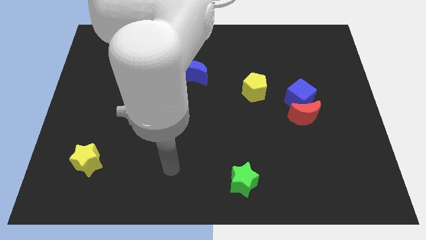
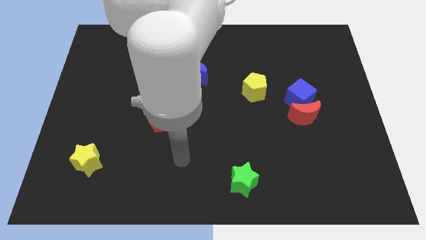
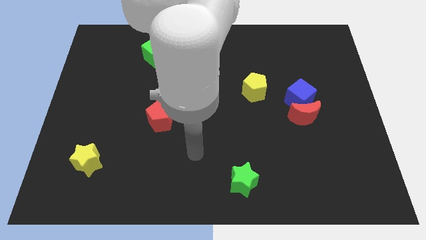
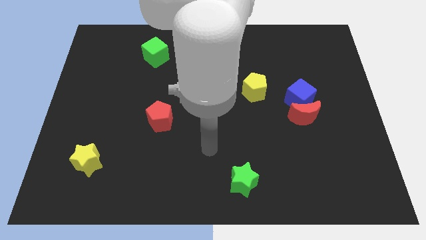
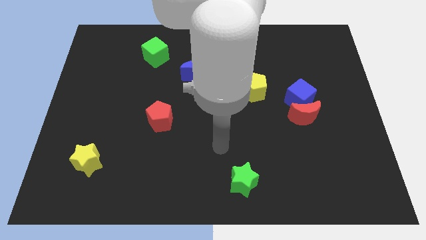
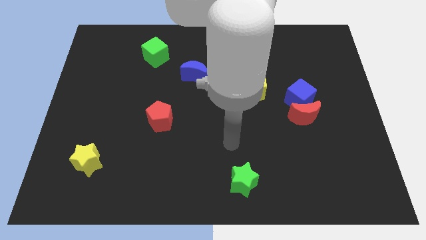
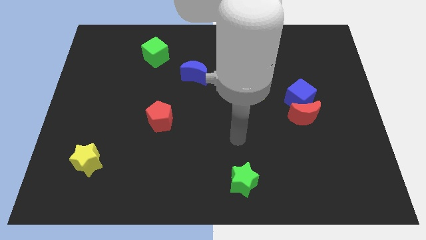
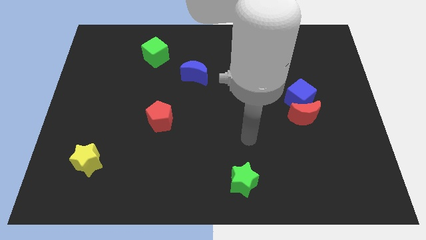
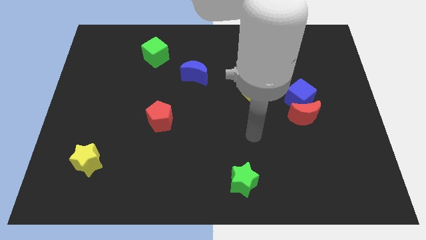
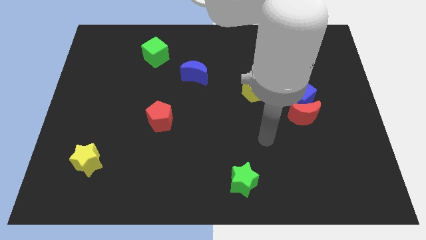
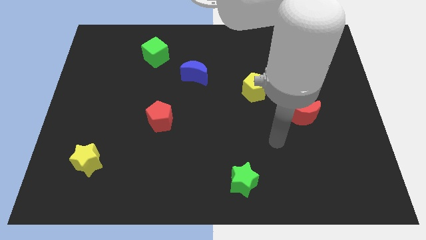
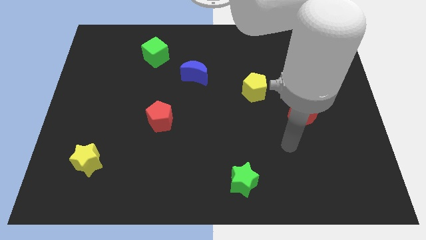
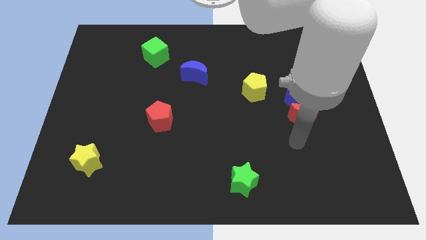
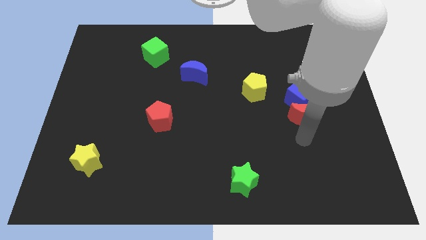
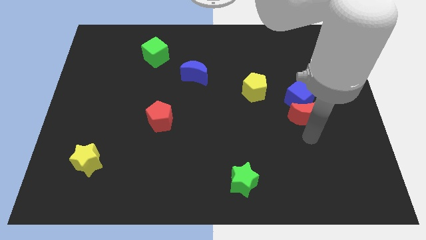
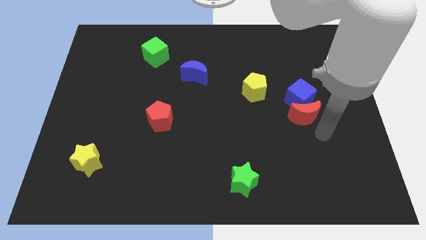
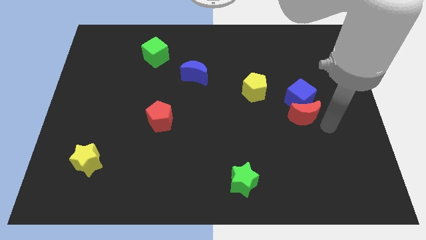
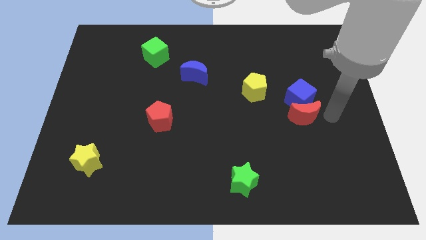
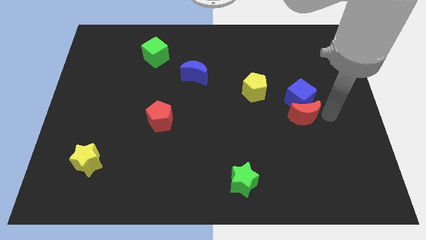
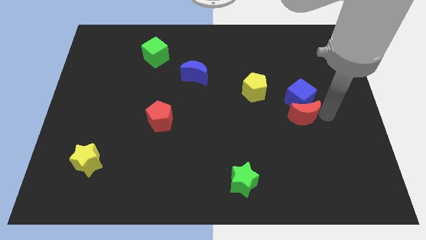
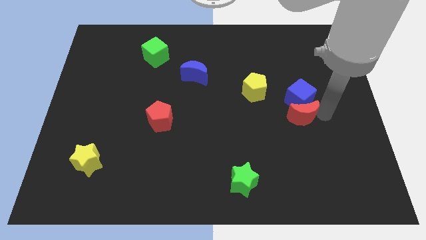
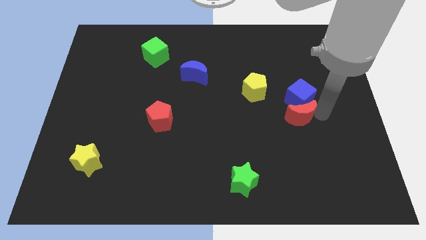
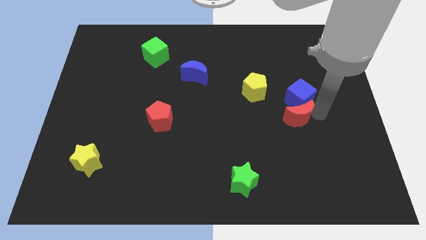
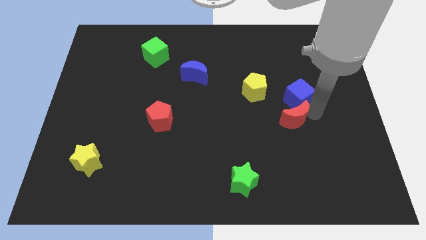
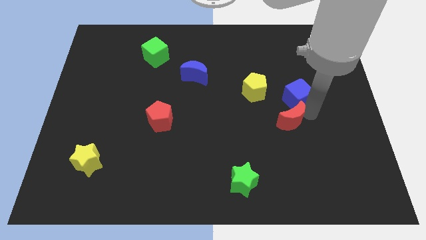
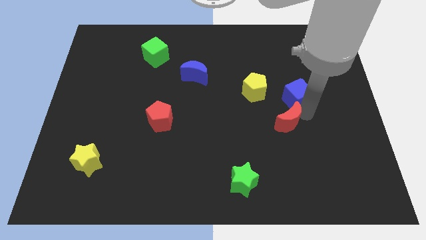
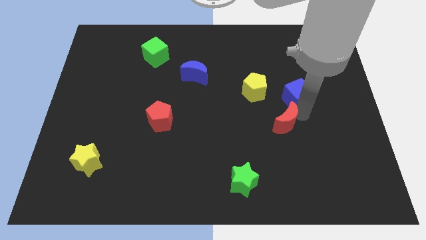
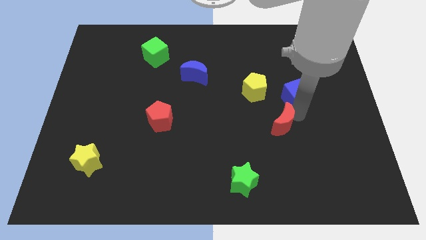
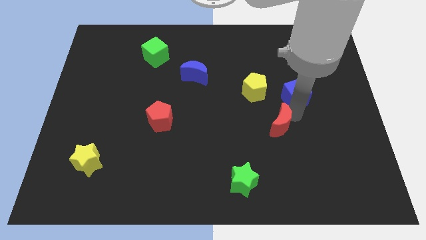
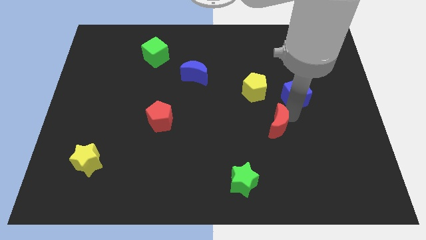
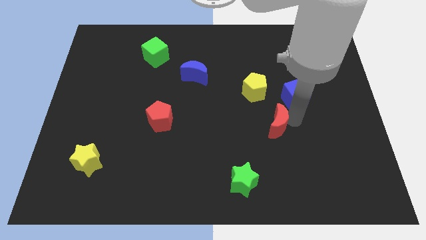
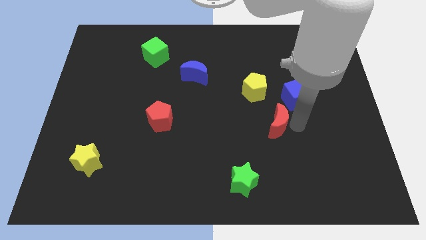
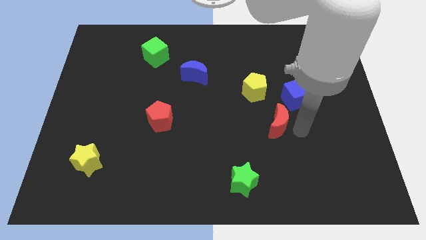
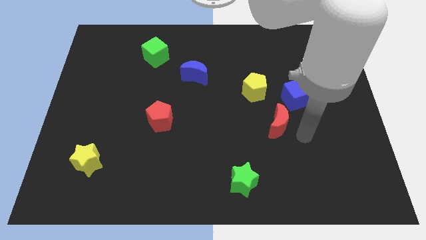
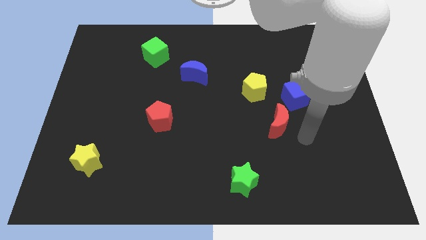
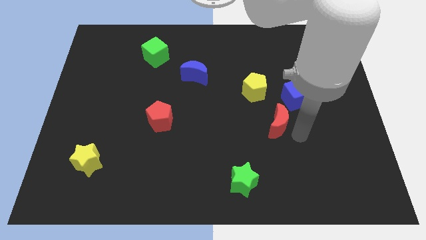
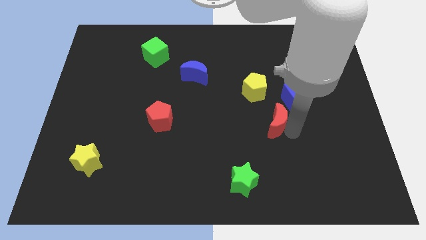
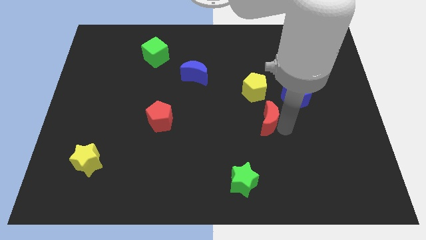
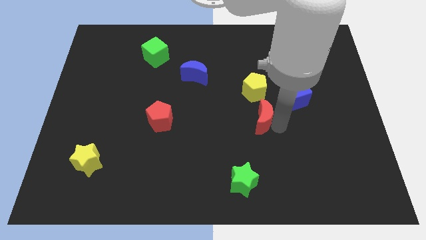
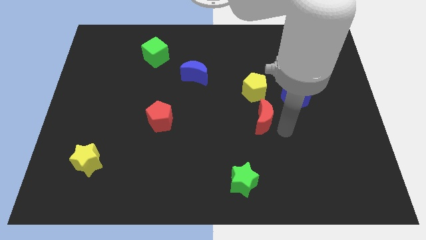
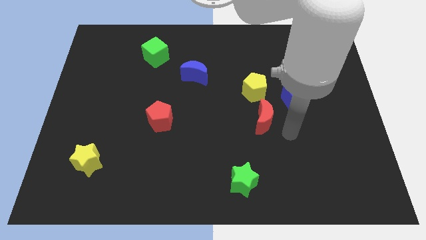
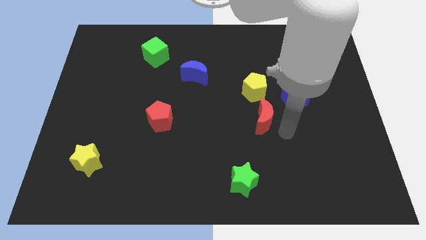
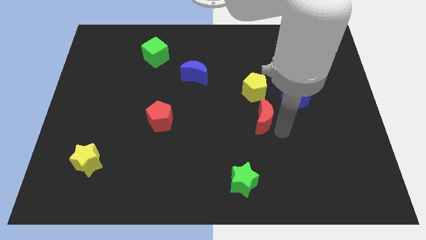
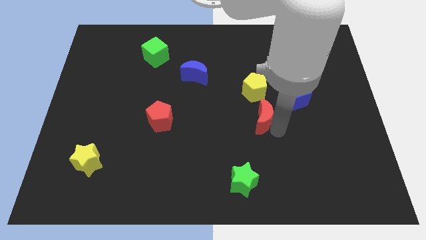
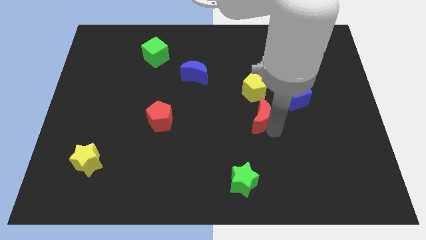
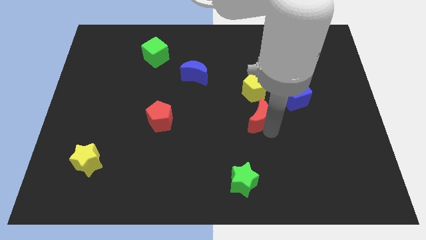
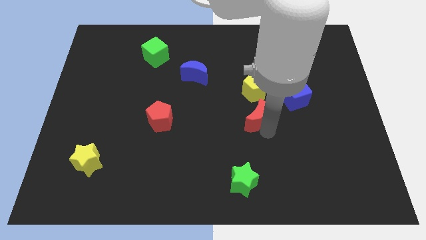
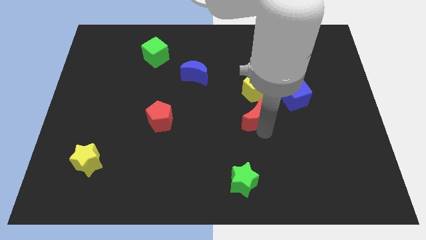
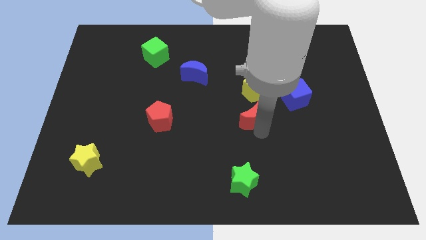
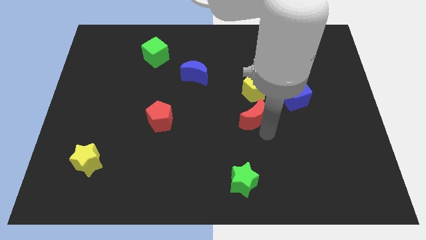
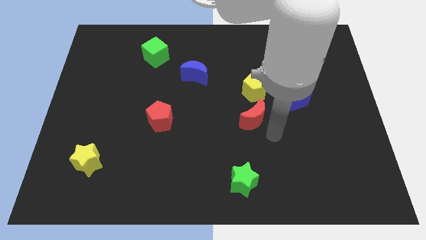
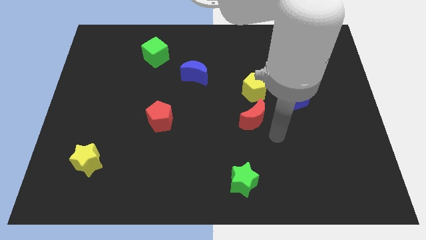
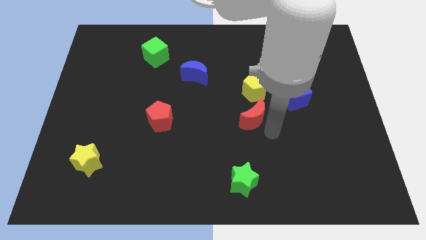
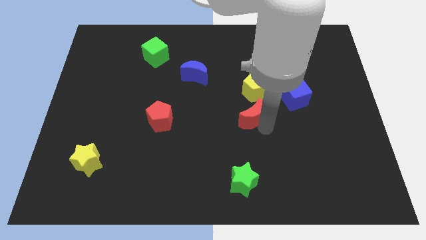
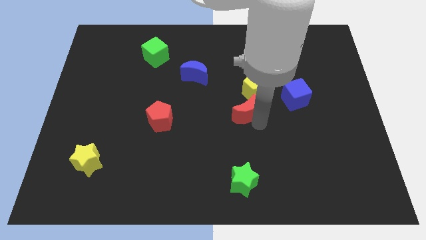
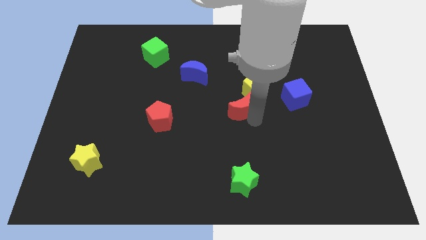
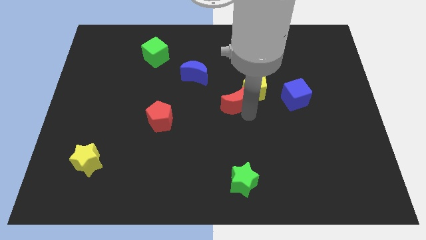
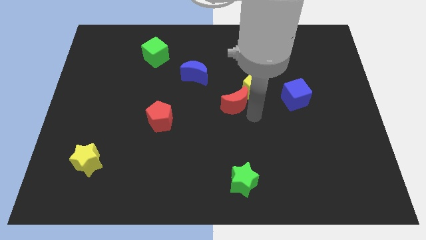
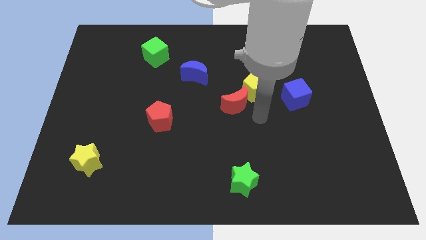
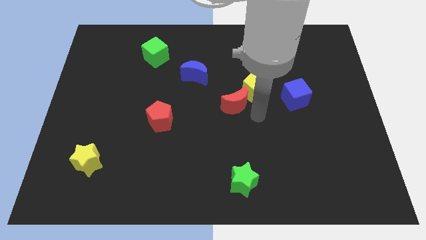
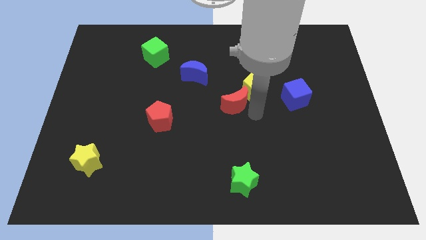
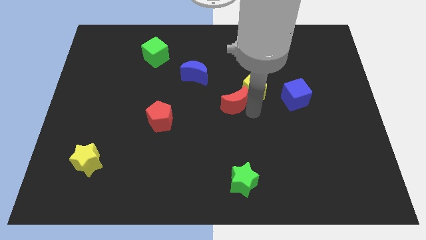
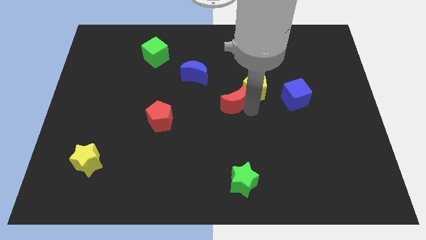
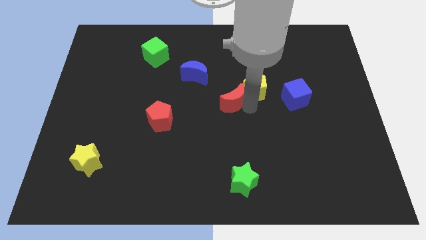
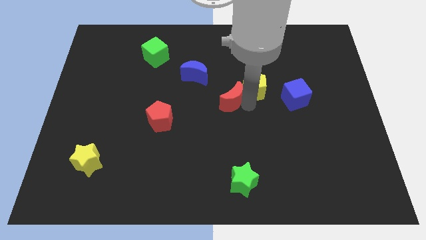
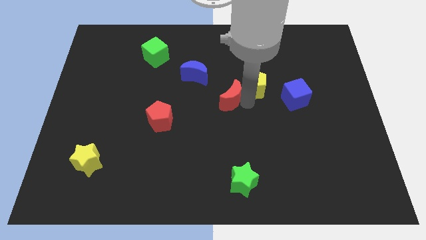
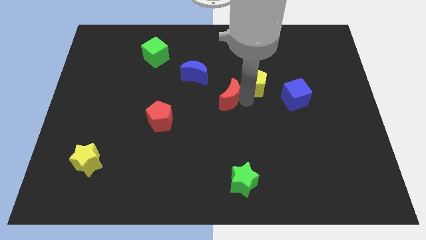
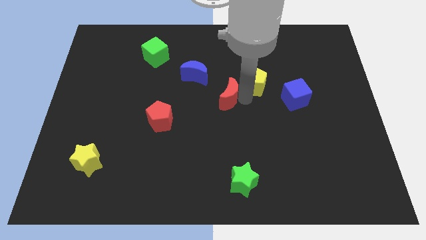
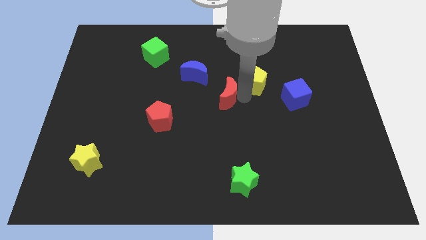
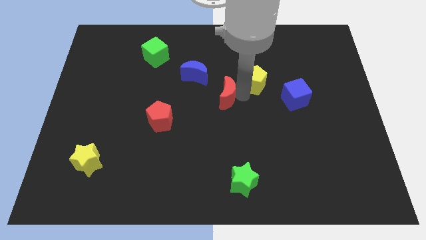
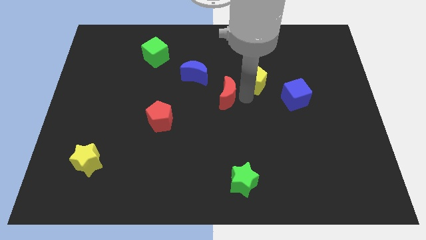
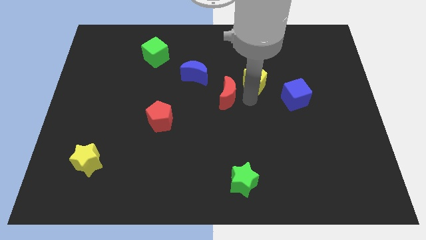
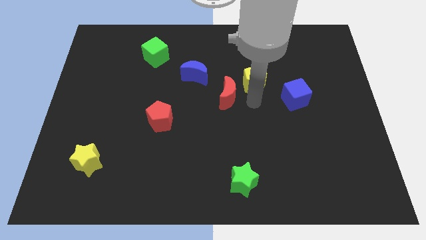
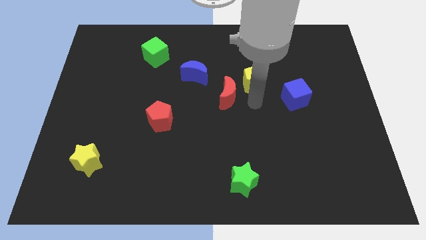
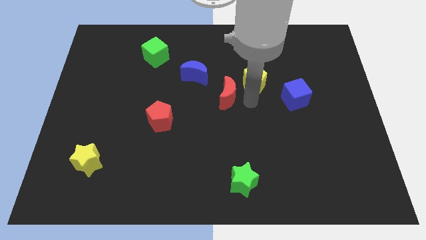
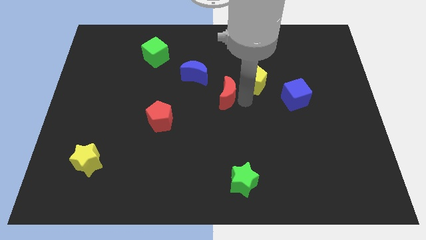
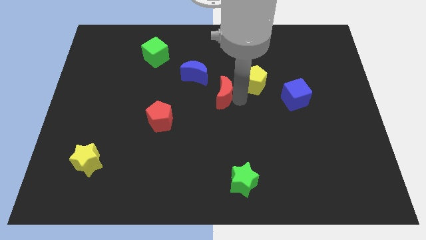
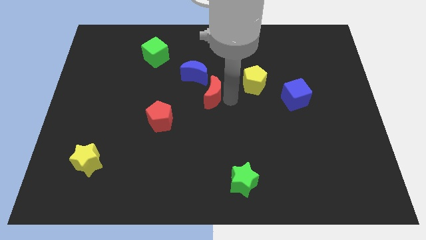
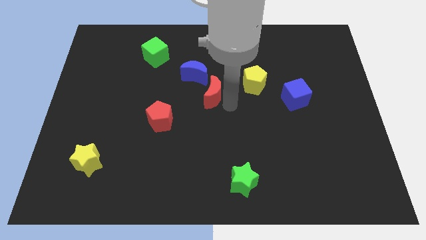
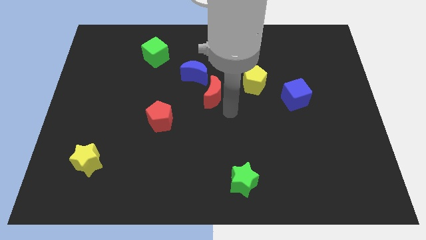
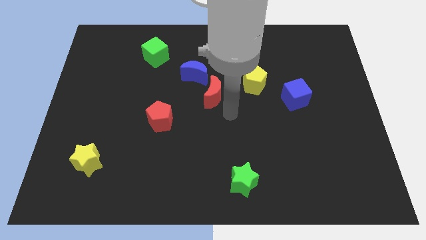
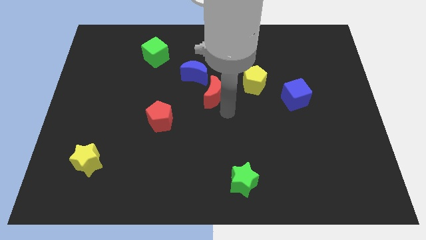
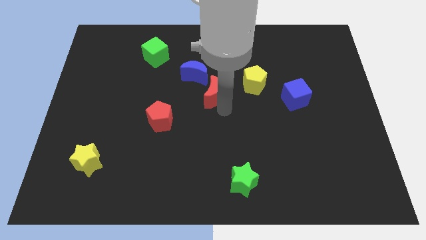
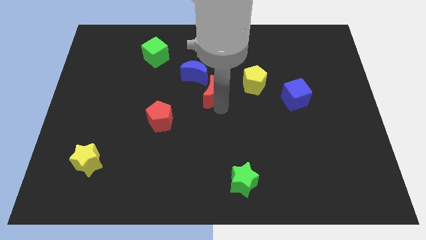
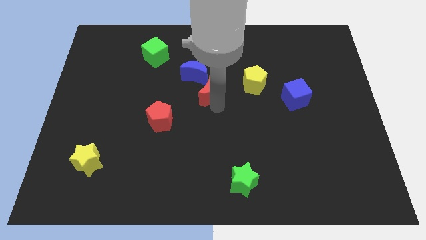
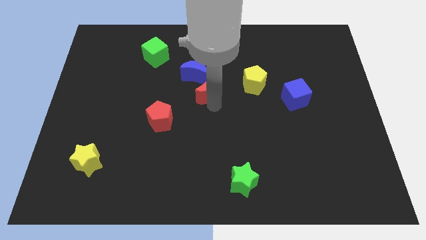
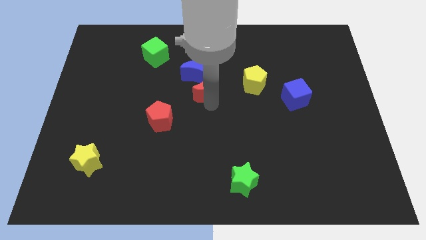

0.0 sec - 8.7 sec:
slide the red moon next to the blue moon
